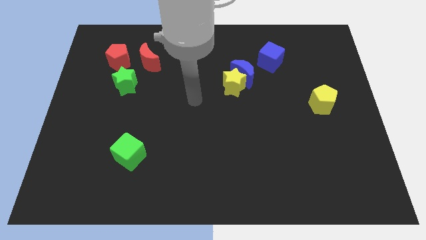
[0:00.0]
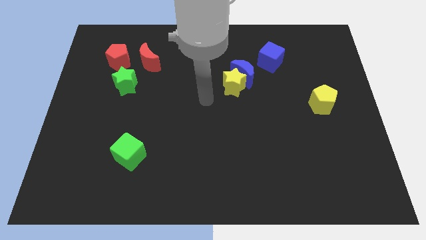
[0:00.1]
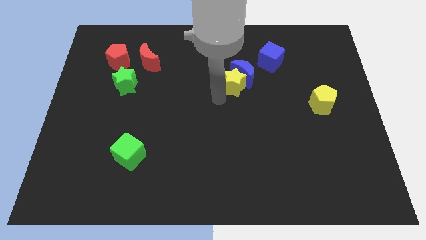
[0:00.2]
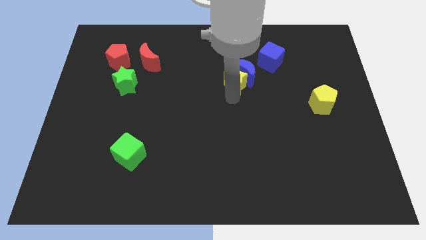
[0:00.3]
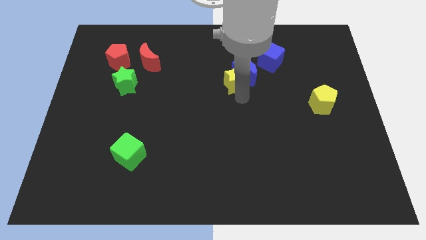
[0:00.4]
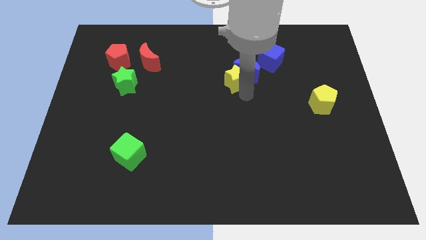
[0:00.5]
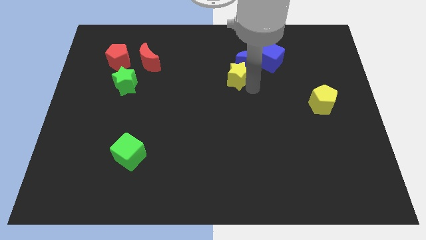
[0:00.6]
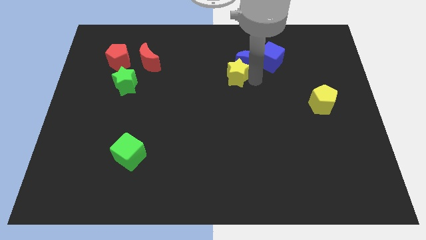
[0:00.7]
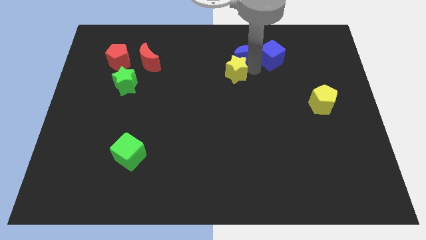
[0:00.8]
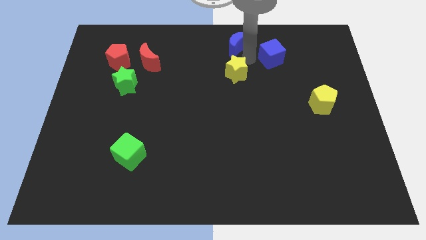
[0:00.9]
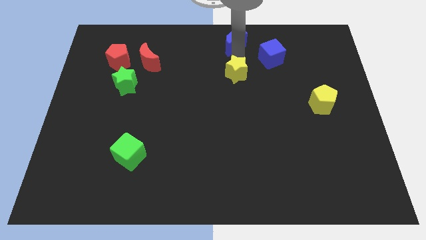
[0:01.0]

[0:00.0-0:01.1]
separate the yellow star from the blue moon

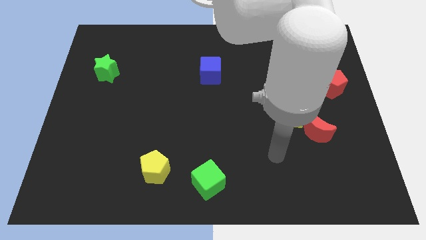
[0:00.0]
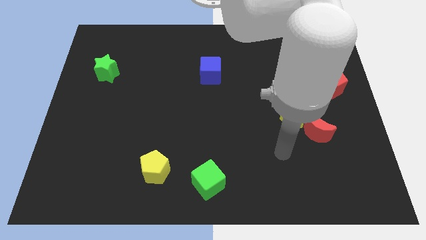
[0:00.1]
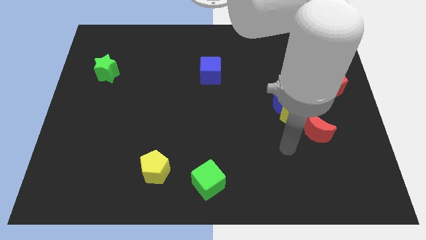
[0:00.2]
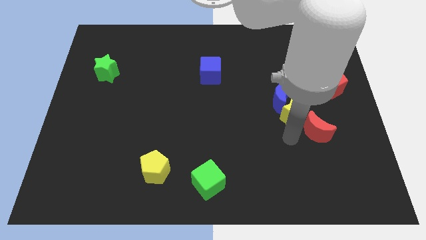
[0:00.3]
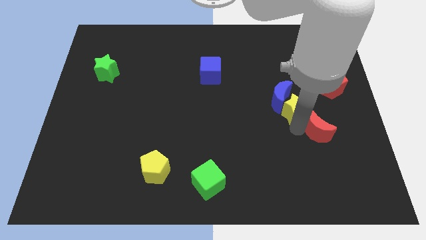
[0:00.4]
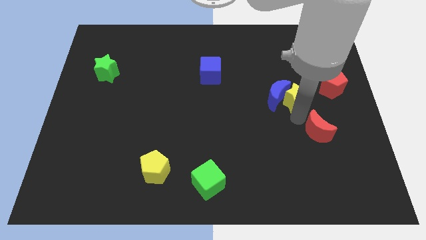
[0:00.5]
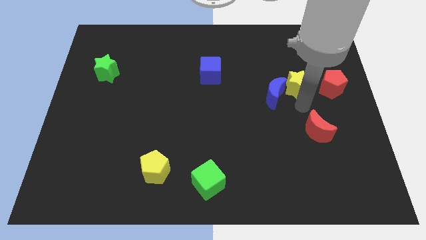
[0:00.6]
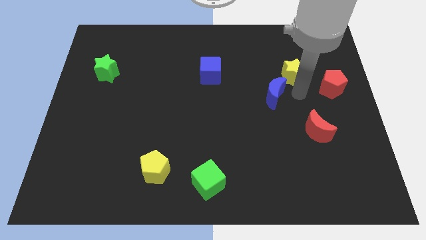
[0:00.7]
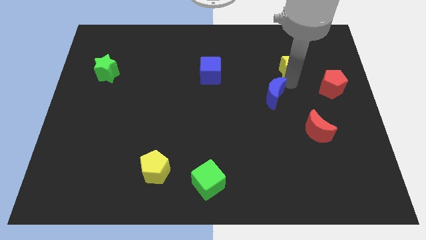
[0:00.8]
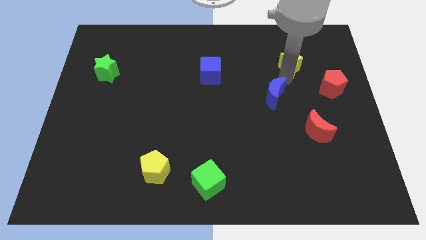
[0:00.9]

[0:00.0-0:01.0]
pull the blue moon apart from the yellow star

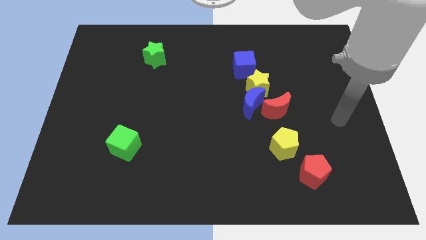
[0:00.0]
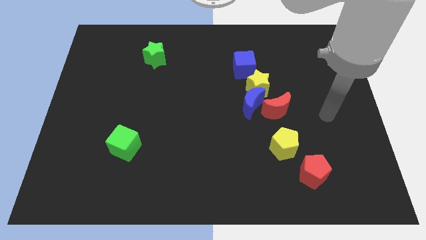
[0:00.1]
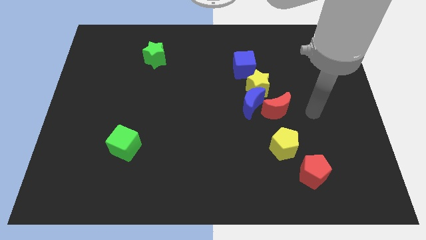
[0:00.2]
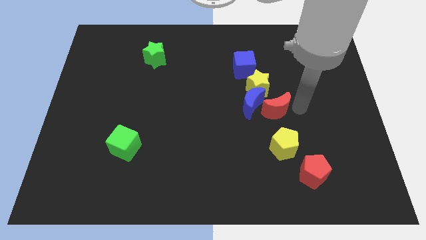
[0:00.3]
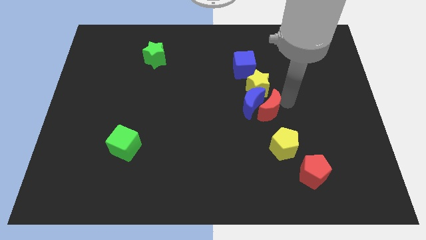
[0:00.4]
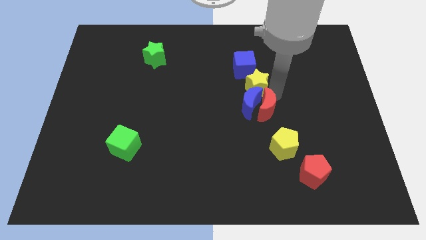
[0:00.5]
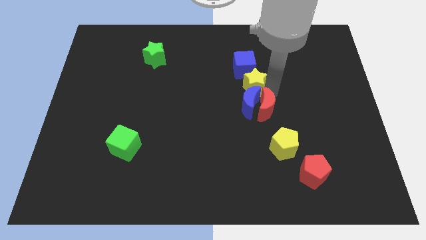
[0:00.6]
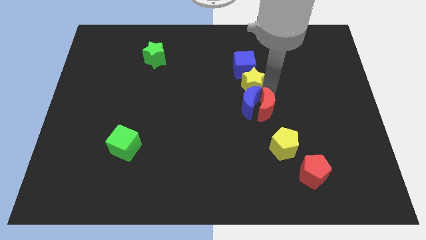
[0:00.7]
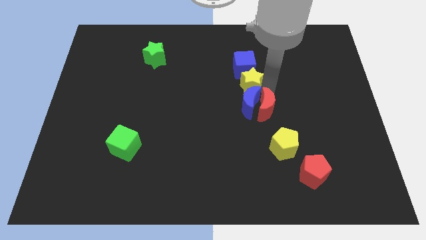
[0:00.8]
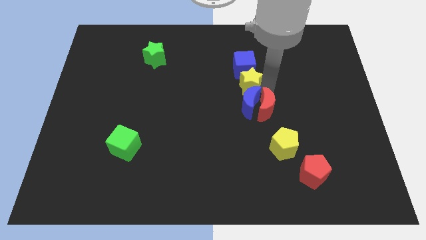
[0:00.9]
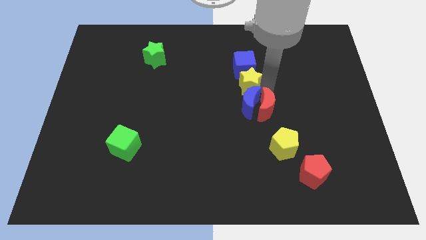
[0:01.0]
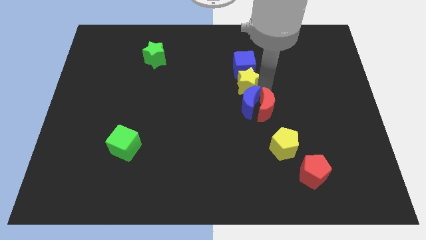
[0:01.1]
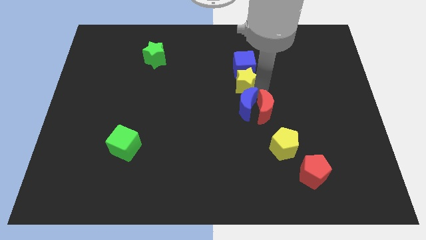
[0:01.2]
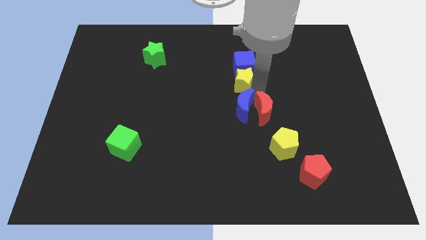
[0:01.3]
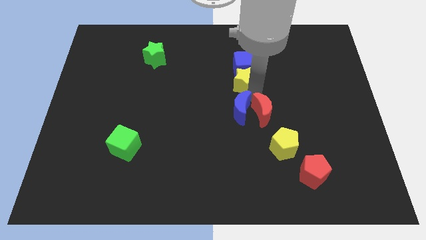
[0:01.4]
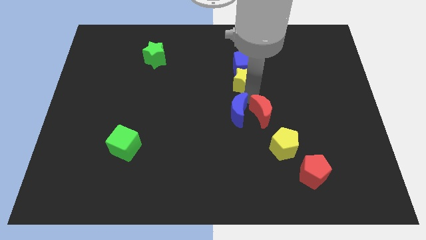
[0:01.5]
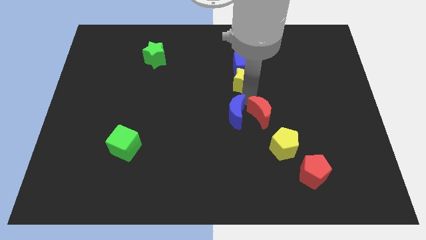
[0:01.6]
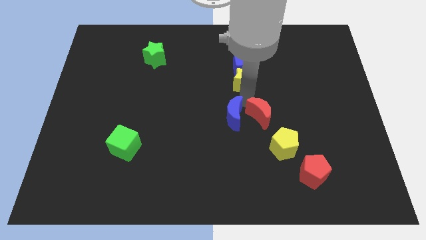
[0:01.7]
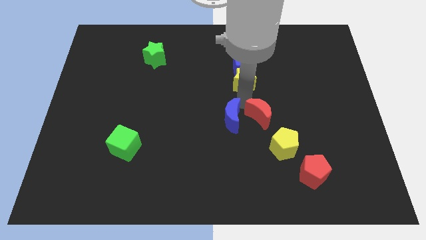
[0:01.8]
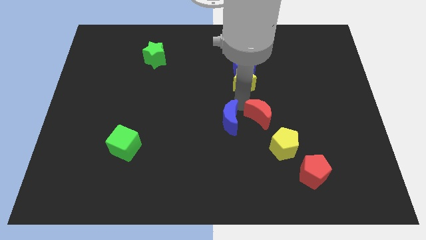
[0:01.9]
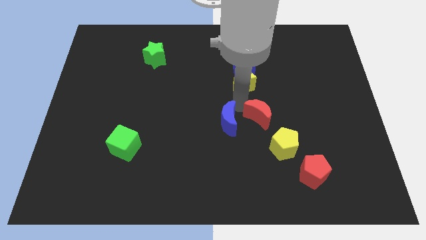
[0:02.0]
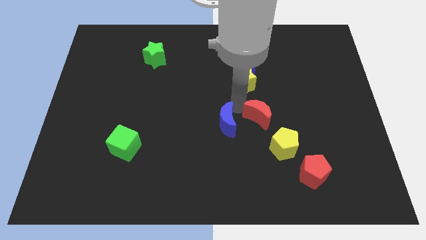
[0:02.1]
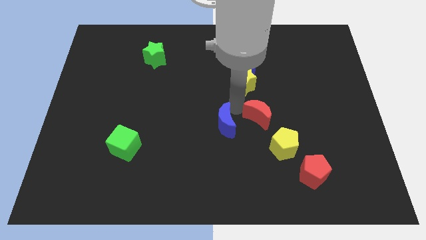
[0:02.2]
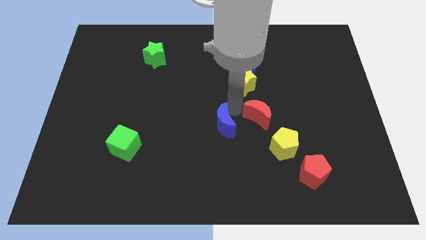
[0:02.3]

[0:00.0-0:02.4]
separate the blue moon from the yellow star and red moon

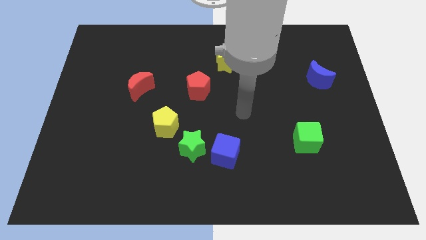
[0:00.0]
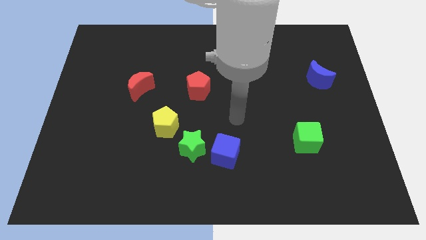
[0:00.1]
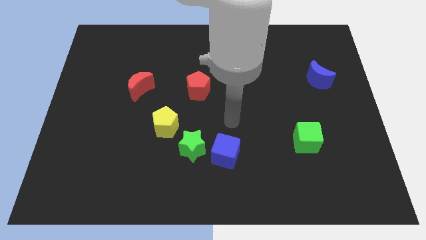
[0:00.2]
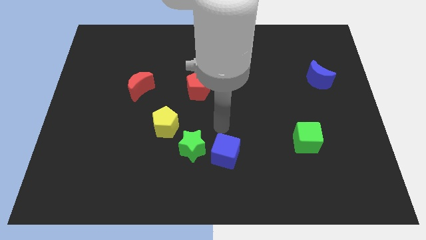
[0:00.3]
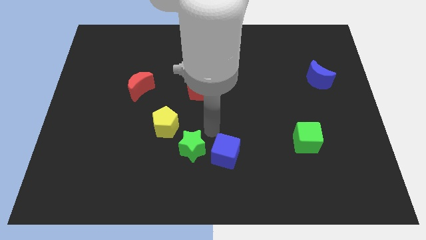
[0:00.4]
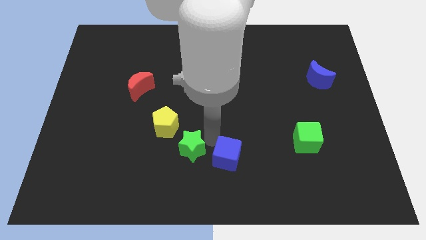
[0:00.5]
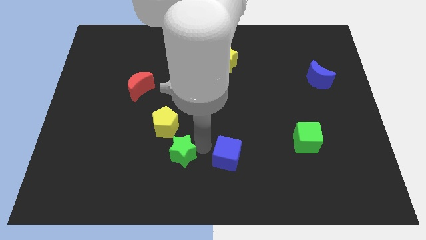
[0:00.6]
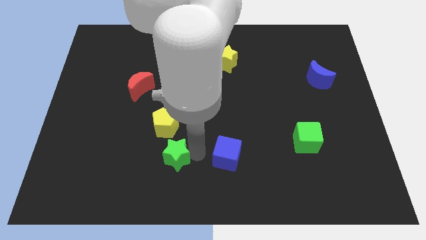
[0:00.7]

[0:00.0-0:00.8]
move the blue cube away from the green star

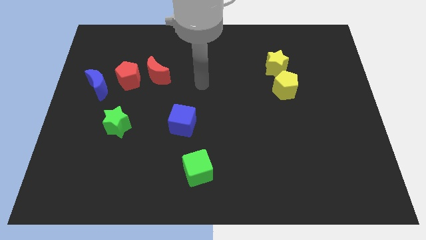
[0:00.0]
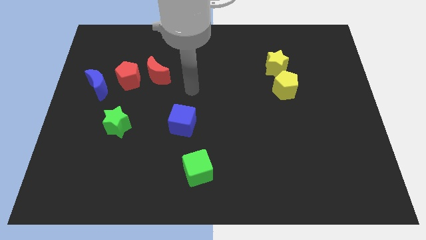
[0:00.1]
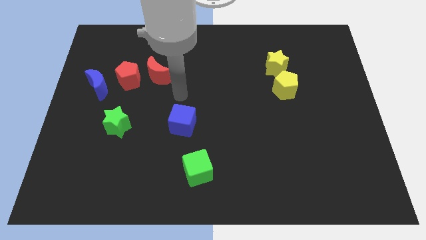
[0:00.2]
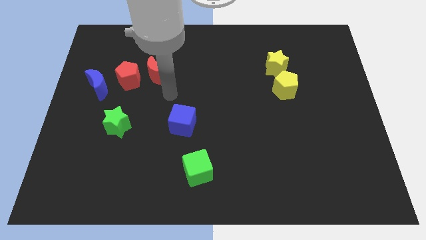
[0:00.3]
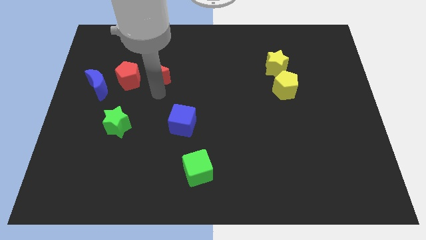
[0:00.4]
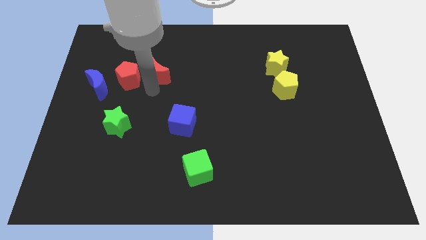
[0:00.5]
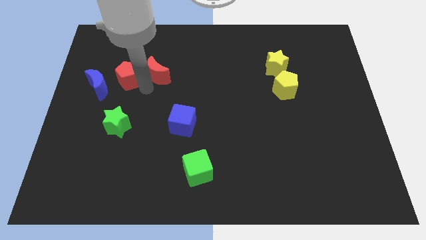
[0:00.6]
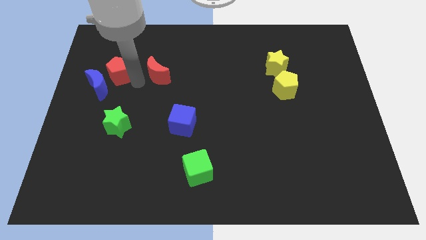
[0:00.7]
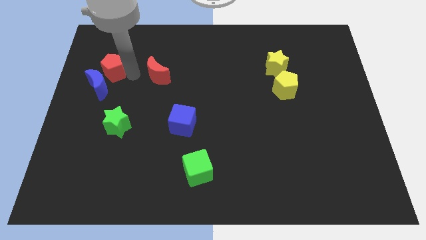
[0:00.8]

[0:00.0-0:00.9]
separate the red moon from the red pentagon

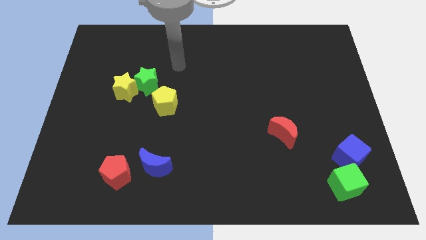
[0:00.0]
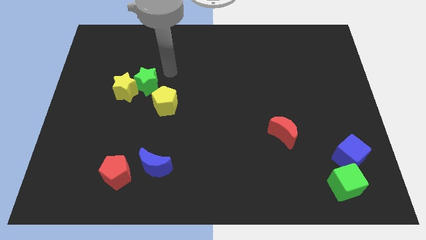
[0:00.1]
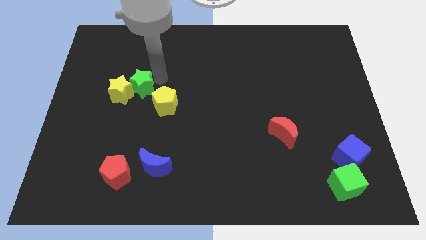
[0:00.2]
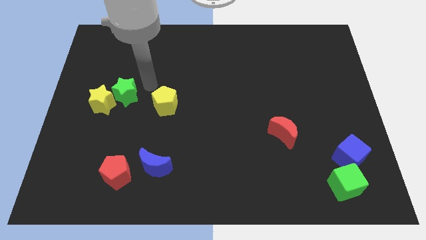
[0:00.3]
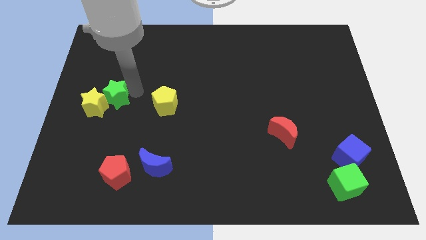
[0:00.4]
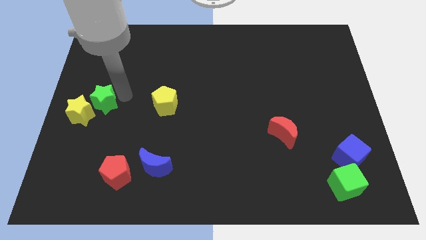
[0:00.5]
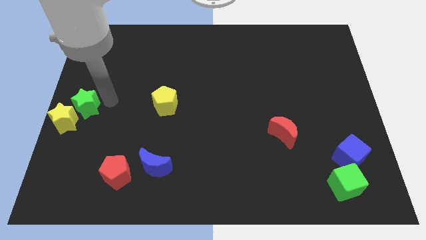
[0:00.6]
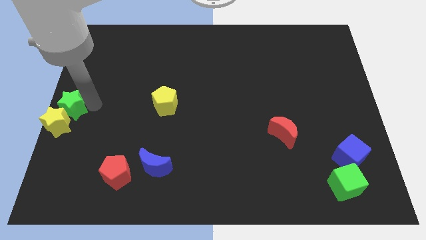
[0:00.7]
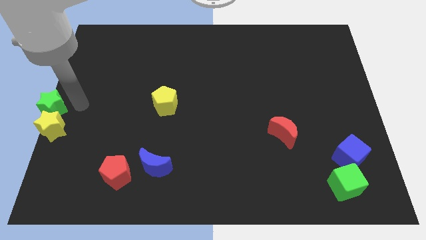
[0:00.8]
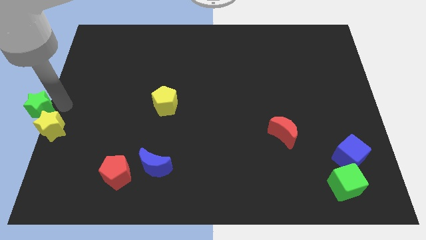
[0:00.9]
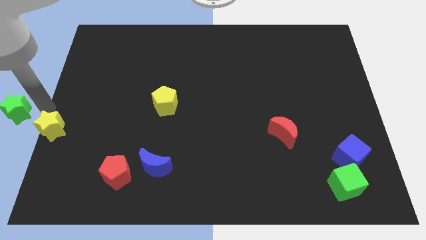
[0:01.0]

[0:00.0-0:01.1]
pull the yellow star apart from the green star

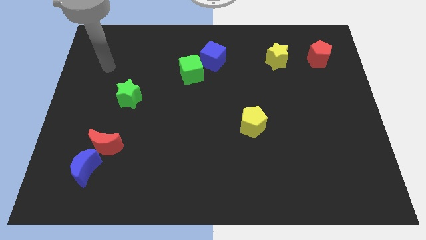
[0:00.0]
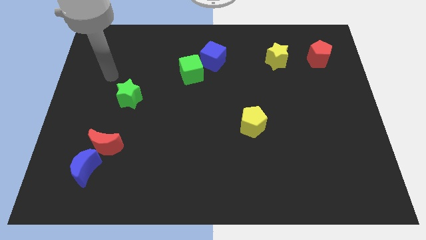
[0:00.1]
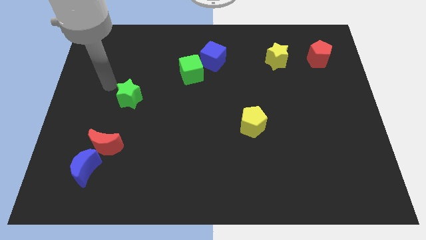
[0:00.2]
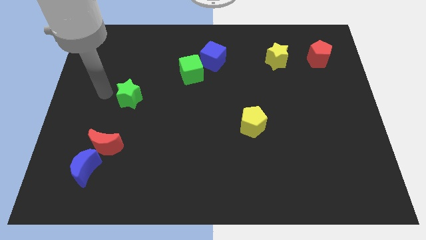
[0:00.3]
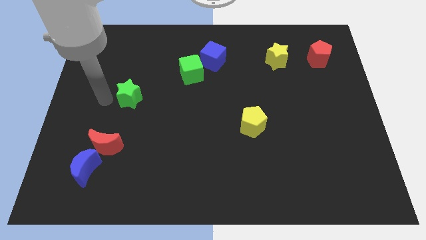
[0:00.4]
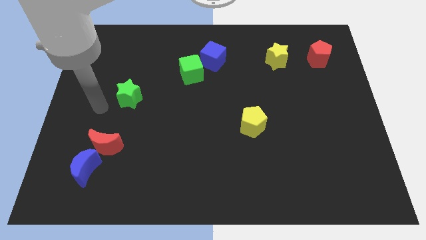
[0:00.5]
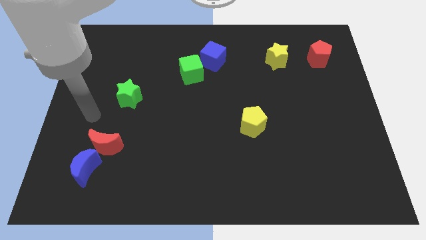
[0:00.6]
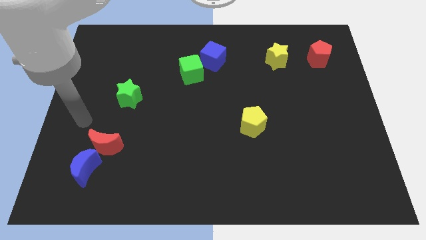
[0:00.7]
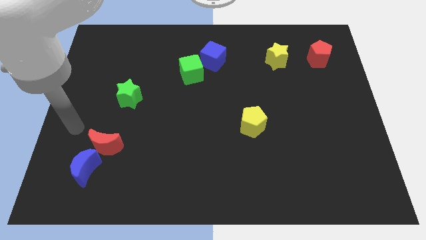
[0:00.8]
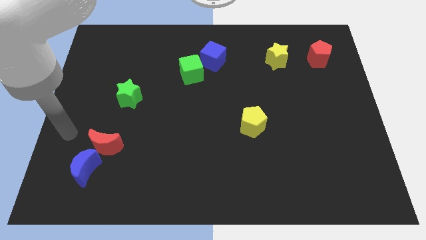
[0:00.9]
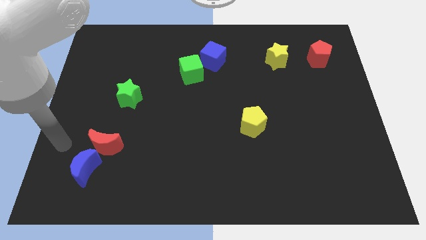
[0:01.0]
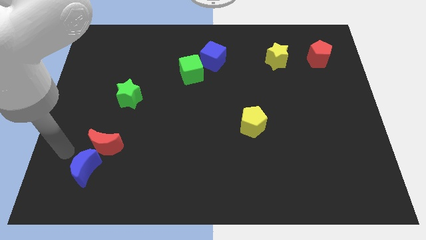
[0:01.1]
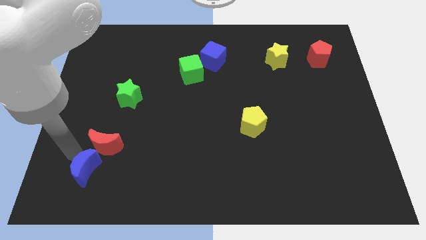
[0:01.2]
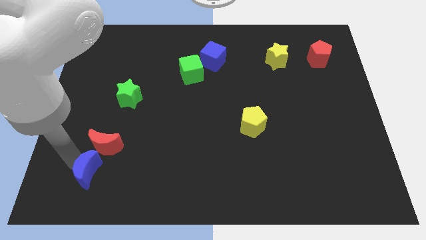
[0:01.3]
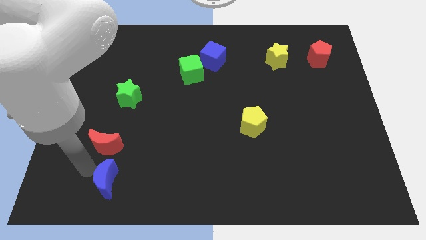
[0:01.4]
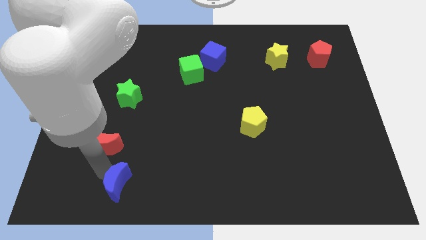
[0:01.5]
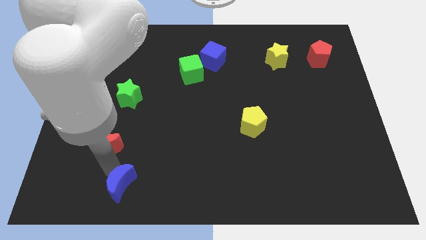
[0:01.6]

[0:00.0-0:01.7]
move the red moon away from the blue moon

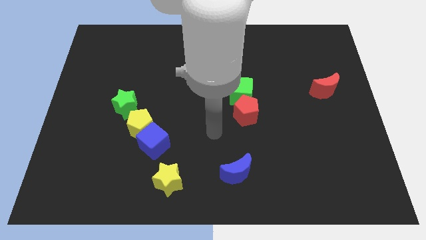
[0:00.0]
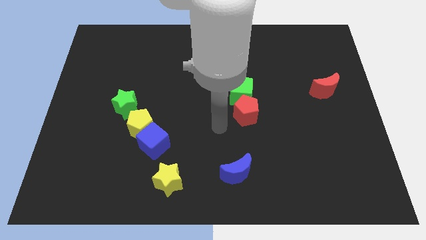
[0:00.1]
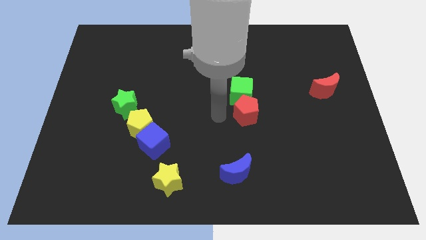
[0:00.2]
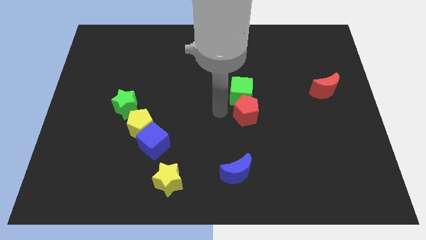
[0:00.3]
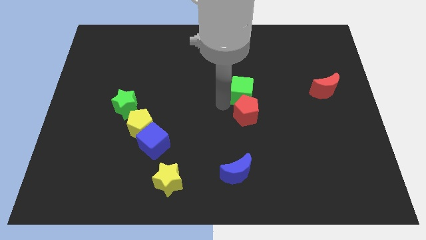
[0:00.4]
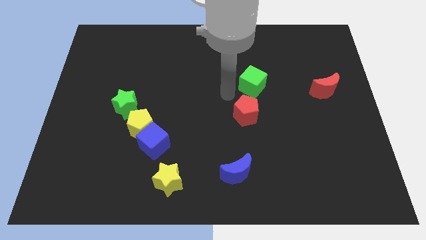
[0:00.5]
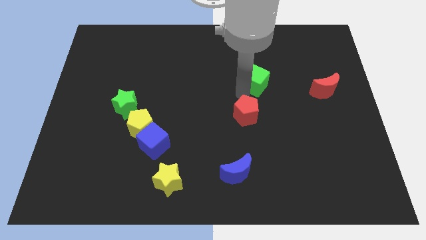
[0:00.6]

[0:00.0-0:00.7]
separate the red pentagon from the green cube
